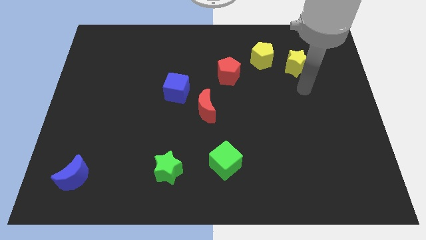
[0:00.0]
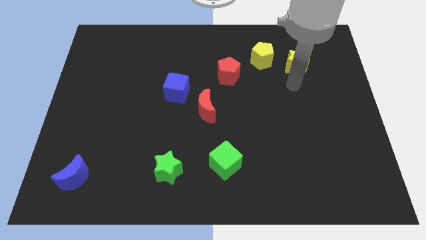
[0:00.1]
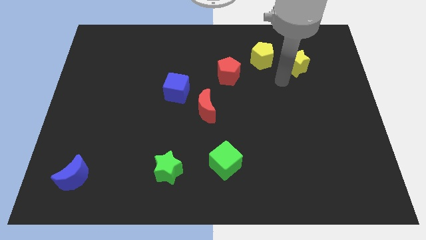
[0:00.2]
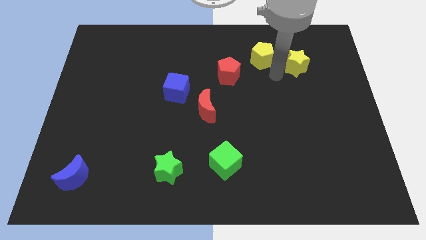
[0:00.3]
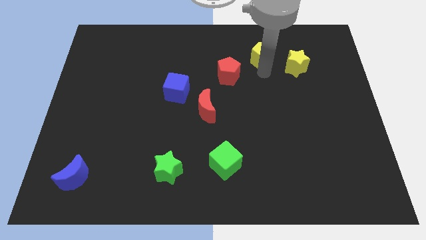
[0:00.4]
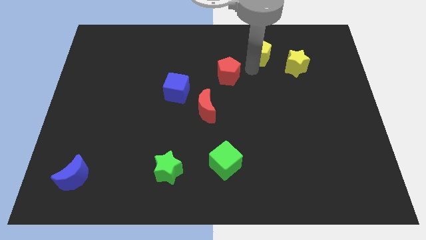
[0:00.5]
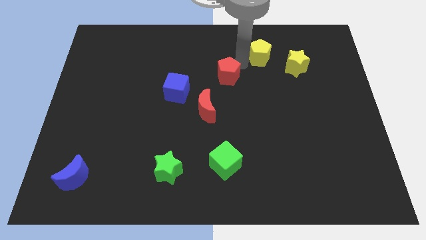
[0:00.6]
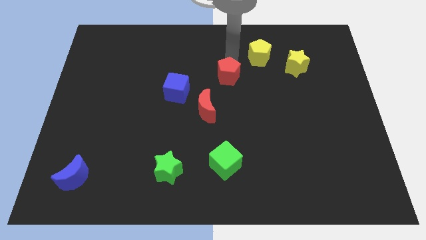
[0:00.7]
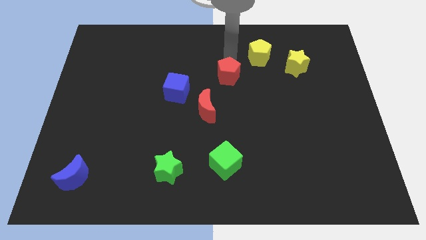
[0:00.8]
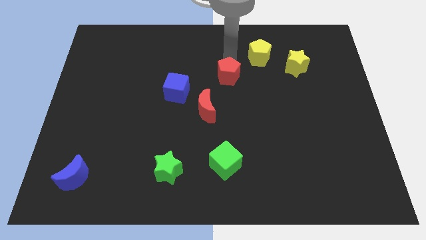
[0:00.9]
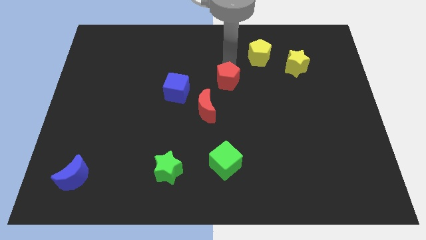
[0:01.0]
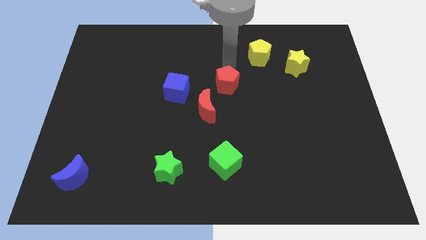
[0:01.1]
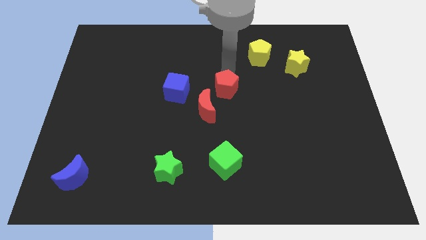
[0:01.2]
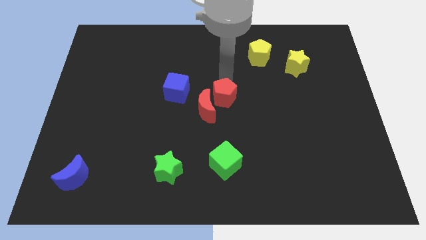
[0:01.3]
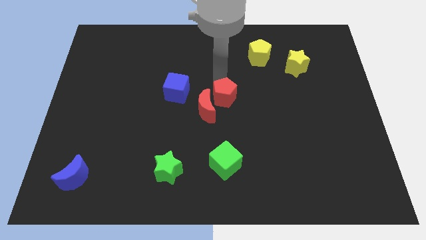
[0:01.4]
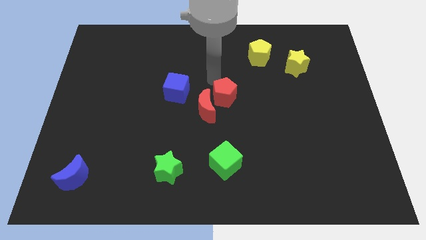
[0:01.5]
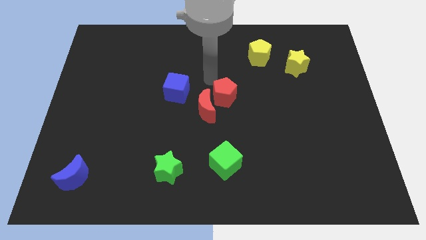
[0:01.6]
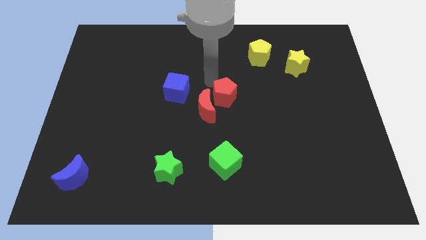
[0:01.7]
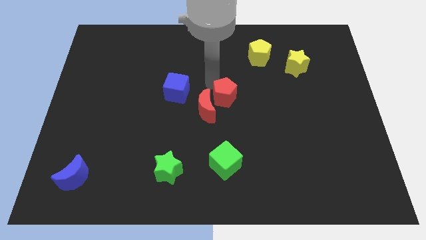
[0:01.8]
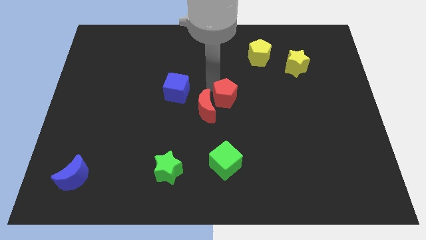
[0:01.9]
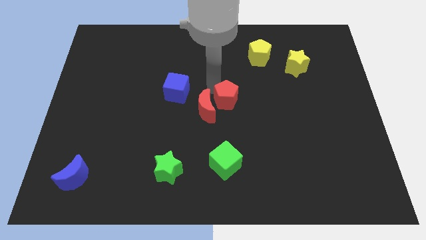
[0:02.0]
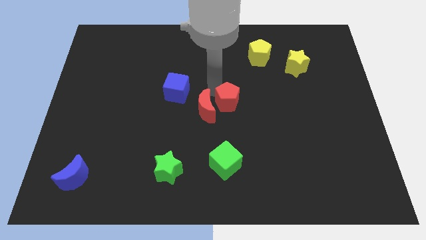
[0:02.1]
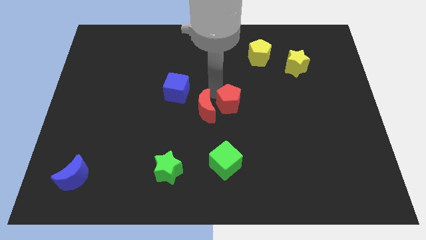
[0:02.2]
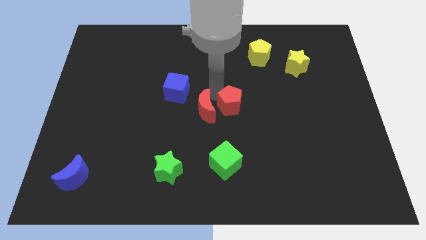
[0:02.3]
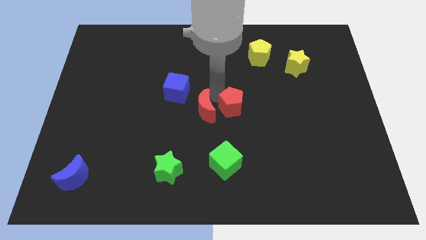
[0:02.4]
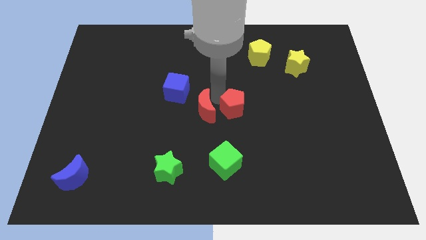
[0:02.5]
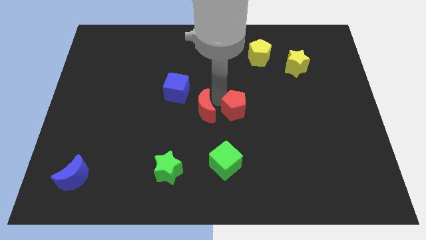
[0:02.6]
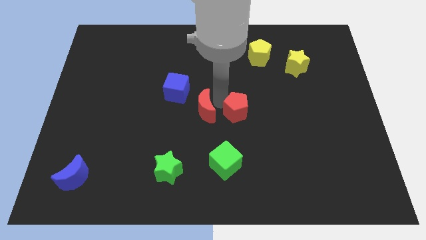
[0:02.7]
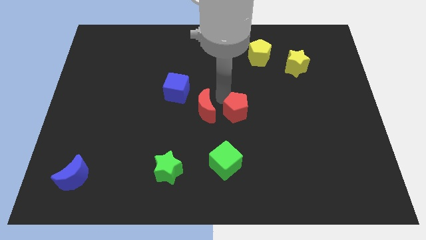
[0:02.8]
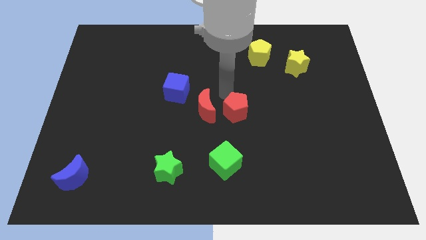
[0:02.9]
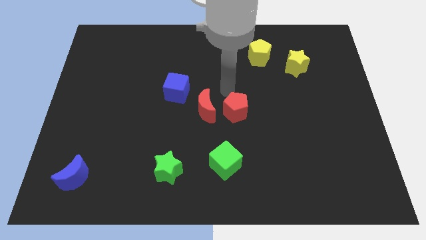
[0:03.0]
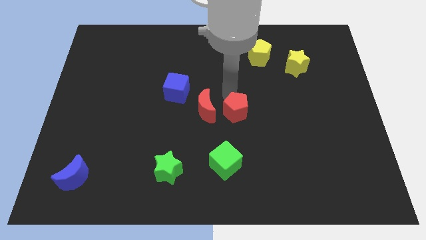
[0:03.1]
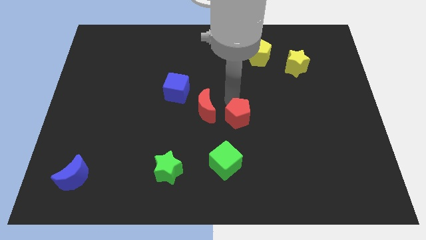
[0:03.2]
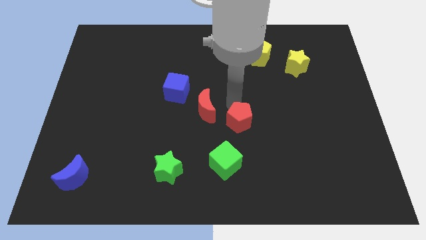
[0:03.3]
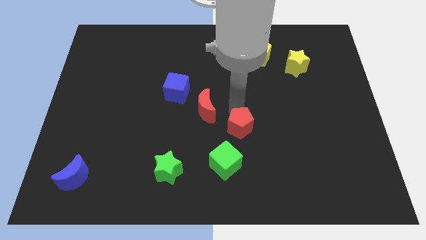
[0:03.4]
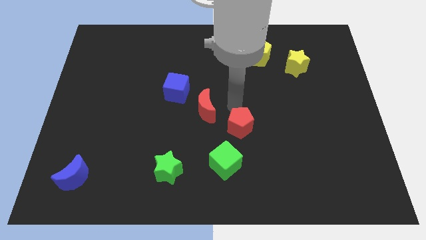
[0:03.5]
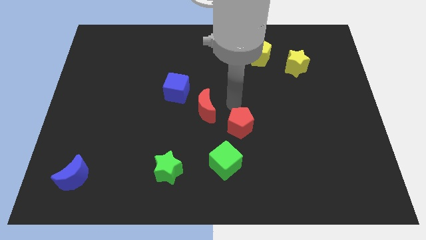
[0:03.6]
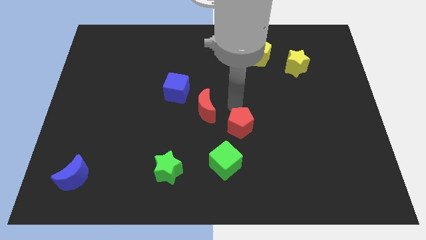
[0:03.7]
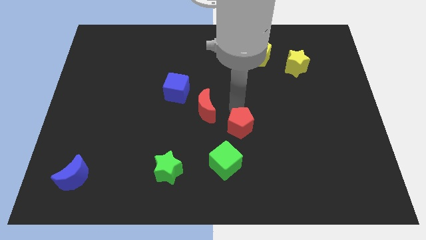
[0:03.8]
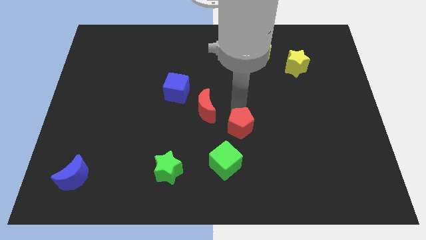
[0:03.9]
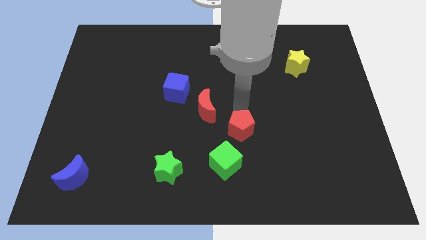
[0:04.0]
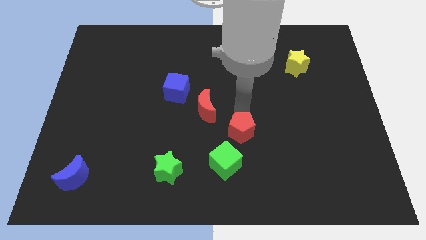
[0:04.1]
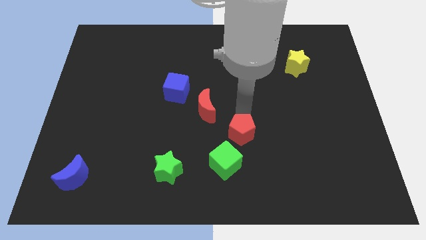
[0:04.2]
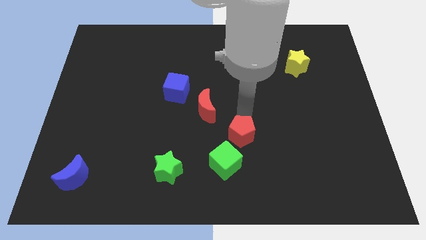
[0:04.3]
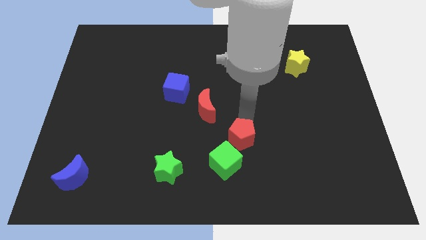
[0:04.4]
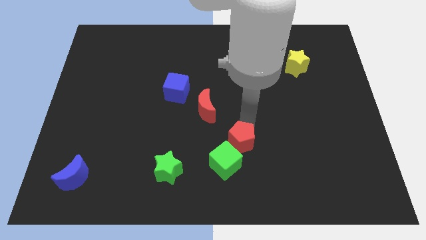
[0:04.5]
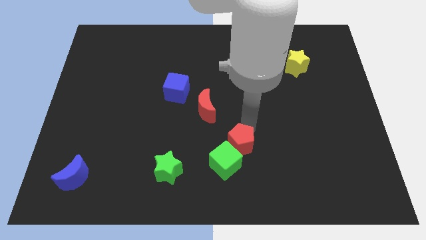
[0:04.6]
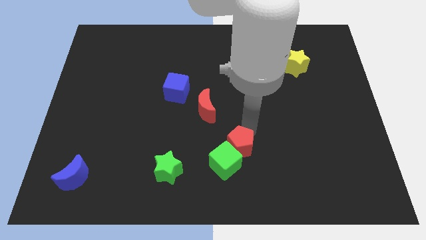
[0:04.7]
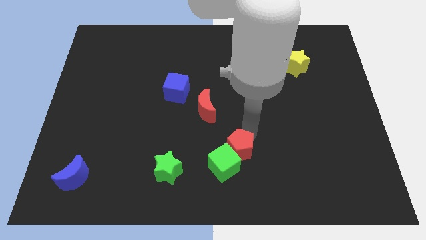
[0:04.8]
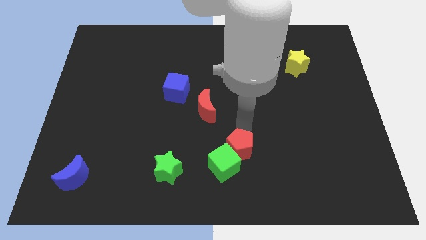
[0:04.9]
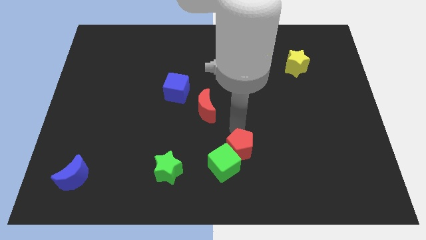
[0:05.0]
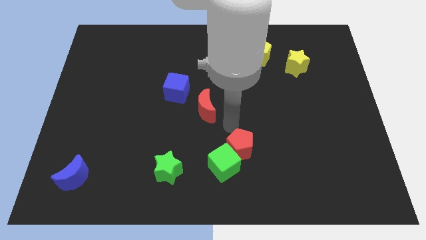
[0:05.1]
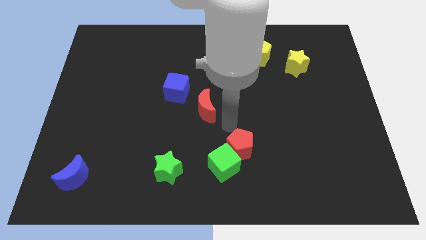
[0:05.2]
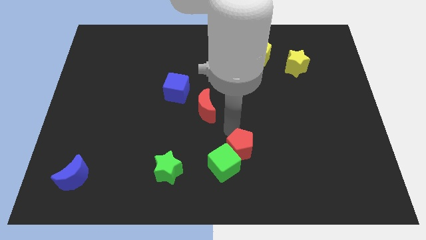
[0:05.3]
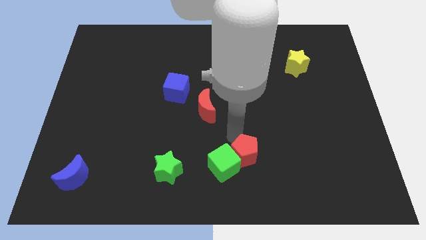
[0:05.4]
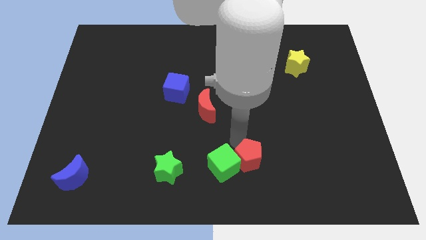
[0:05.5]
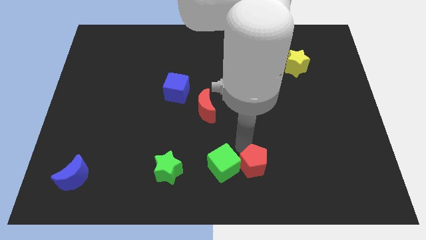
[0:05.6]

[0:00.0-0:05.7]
slide the red pentagon to the bottom
